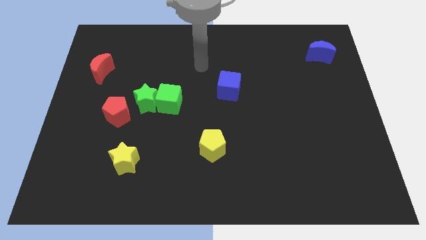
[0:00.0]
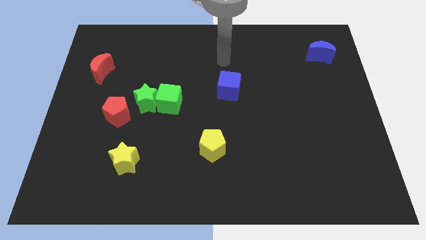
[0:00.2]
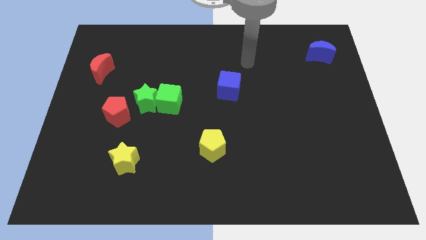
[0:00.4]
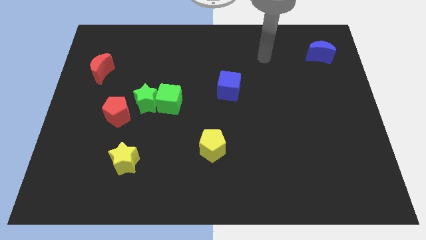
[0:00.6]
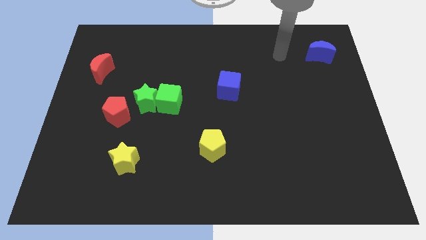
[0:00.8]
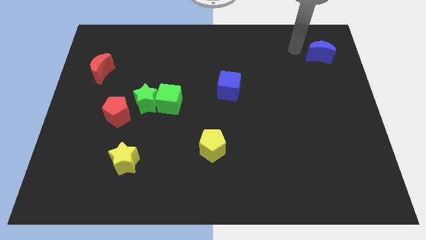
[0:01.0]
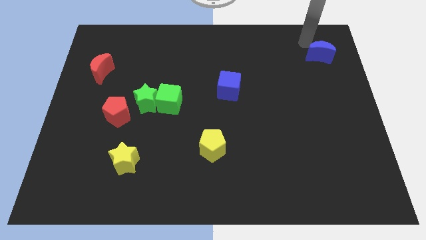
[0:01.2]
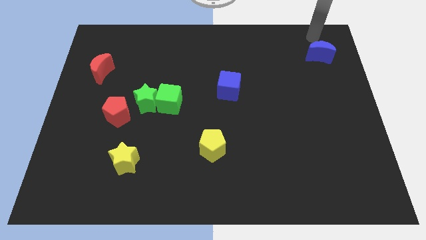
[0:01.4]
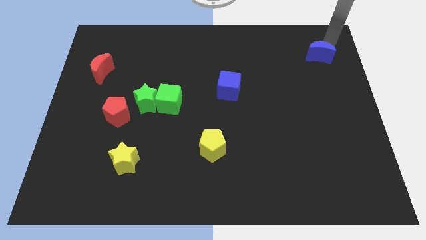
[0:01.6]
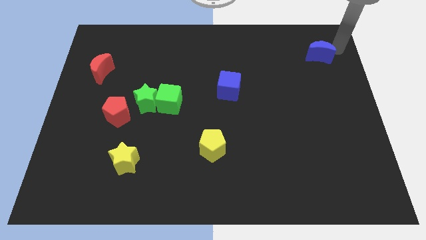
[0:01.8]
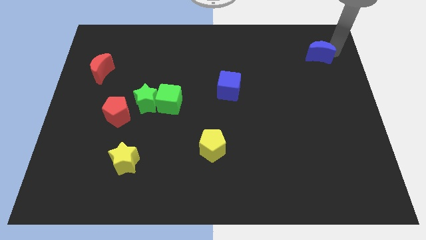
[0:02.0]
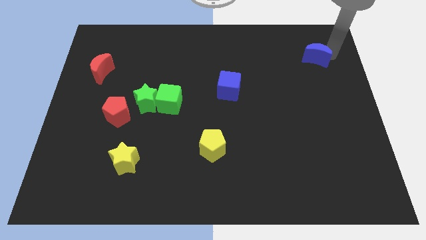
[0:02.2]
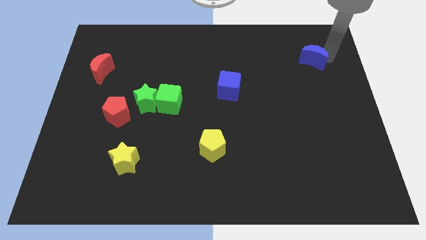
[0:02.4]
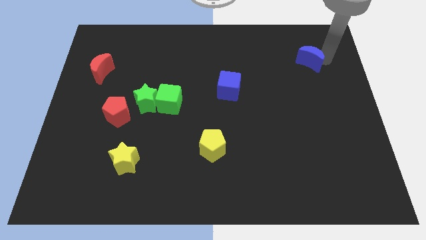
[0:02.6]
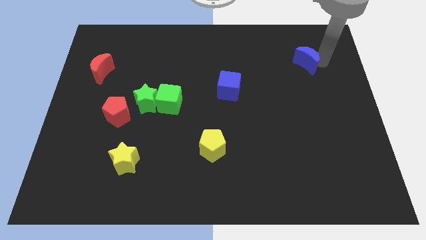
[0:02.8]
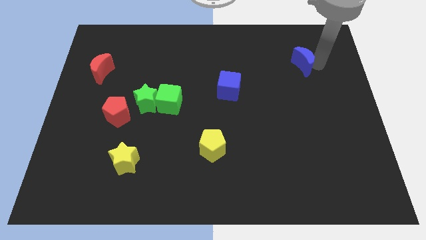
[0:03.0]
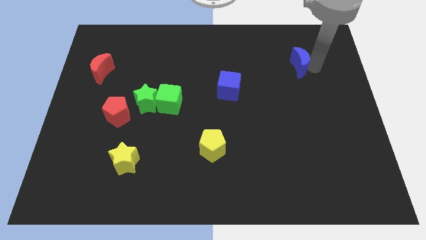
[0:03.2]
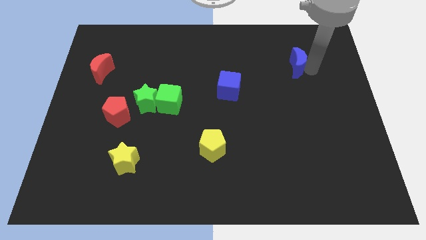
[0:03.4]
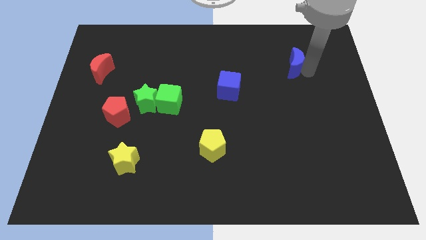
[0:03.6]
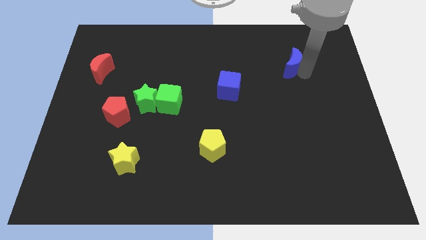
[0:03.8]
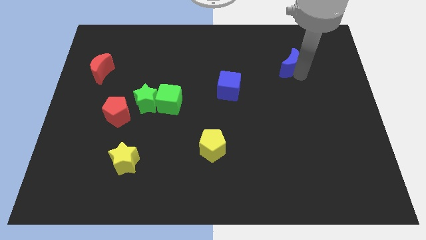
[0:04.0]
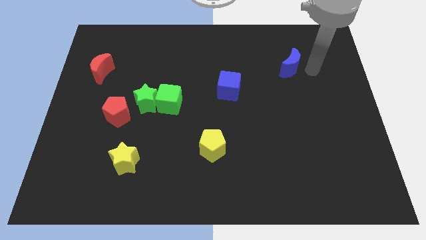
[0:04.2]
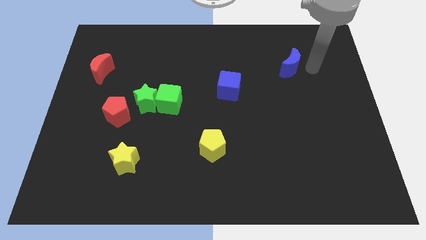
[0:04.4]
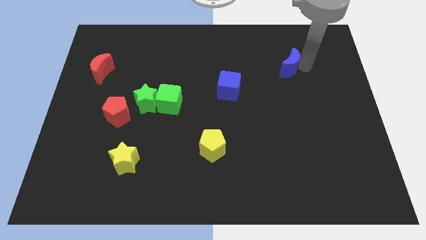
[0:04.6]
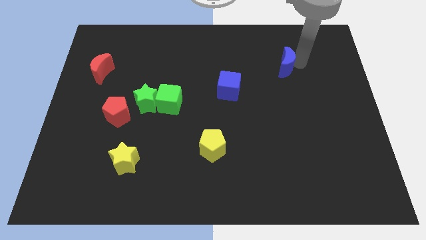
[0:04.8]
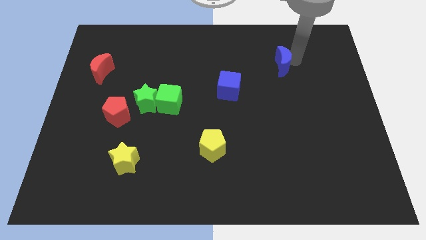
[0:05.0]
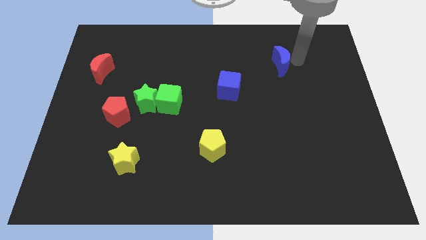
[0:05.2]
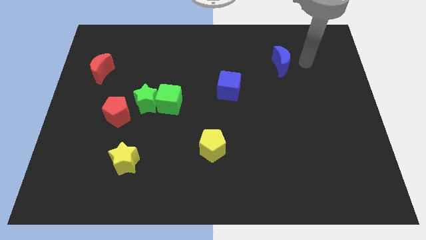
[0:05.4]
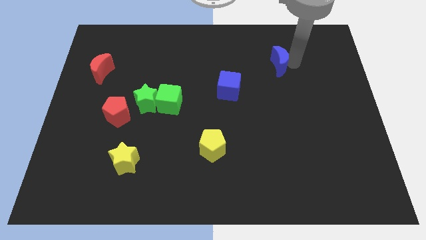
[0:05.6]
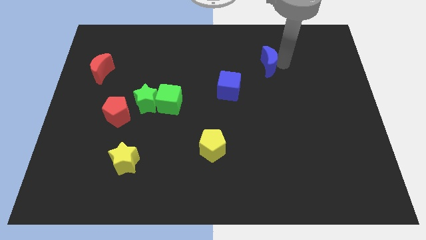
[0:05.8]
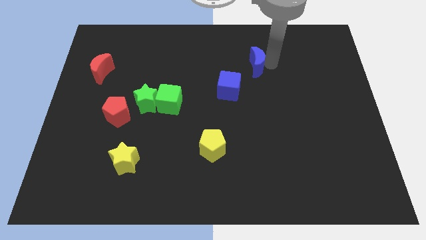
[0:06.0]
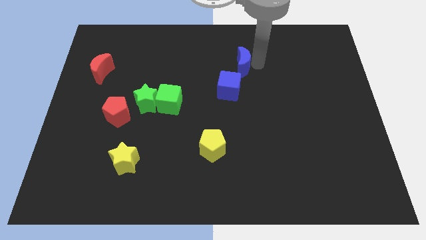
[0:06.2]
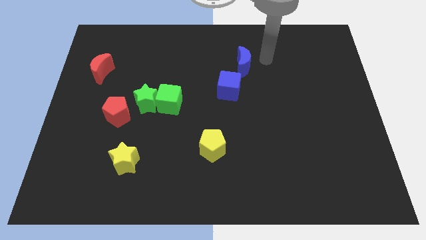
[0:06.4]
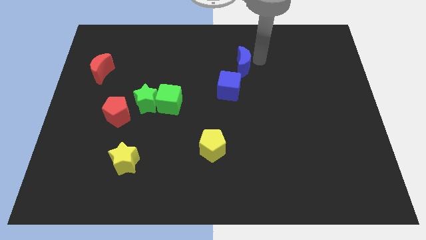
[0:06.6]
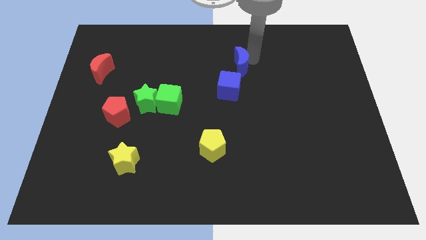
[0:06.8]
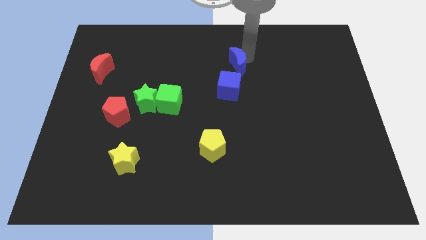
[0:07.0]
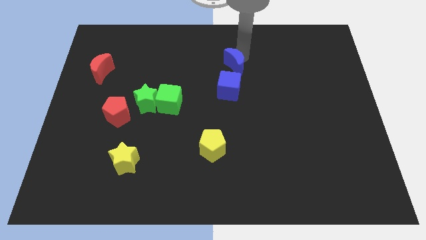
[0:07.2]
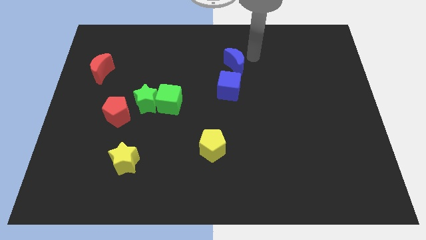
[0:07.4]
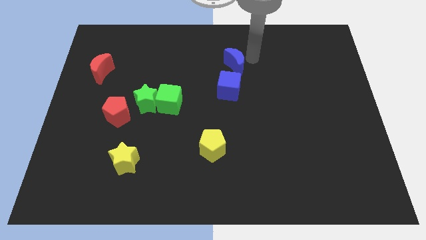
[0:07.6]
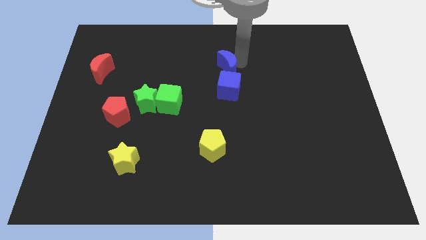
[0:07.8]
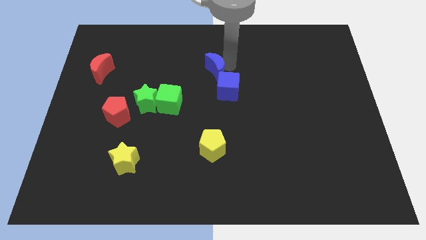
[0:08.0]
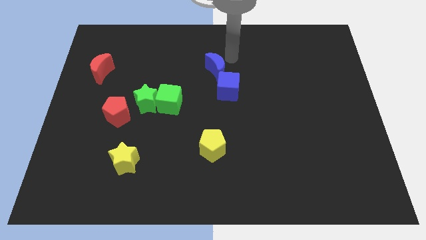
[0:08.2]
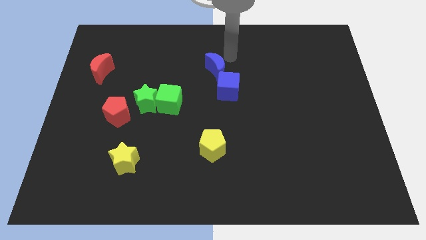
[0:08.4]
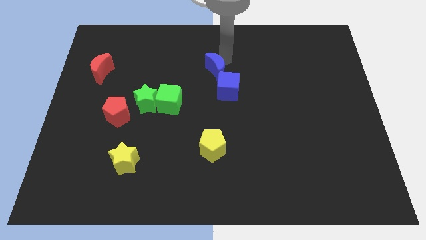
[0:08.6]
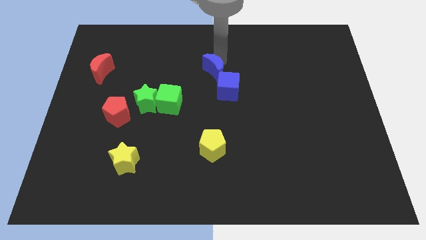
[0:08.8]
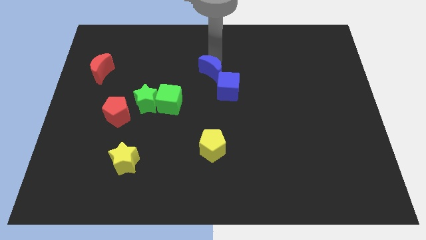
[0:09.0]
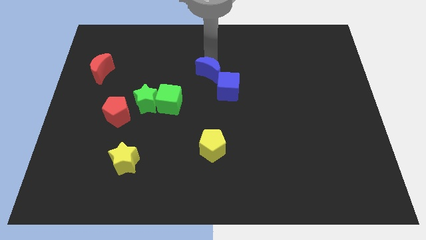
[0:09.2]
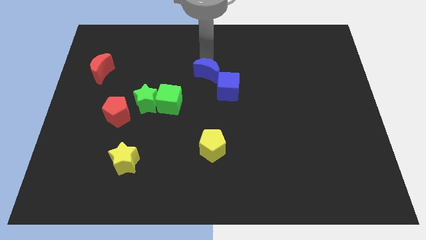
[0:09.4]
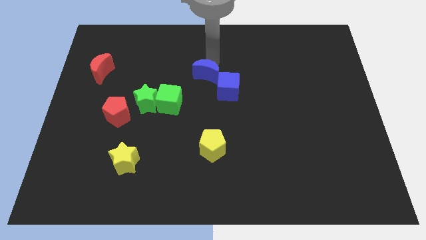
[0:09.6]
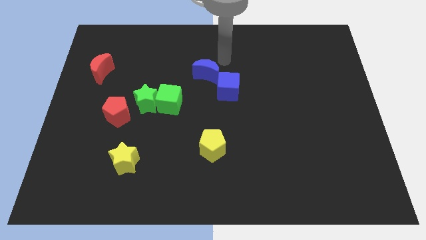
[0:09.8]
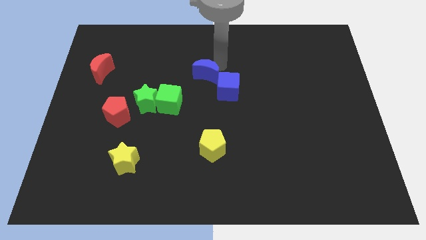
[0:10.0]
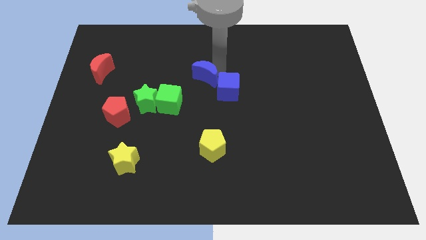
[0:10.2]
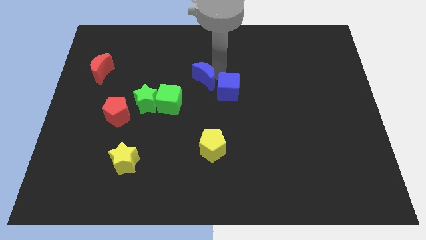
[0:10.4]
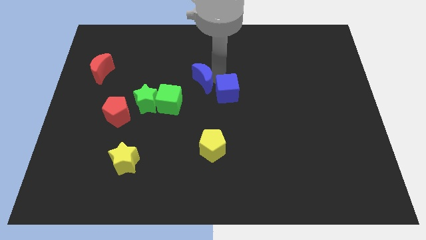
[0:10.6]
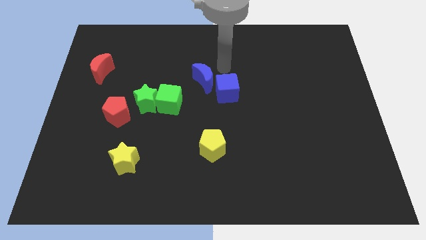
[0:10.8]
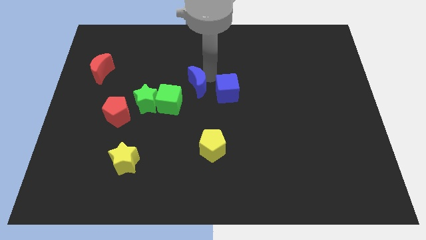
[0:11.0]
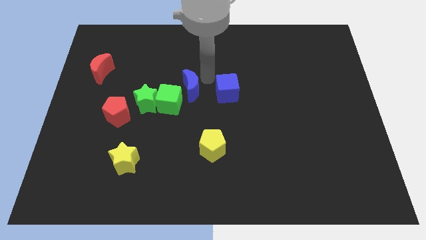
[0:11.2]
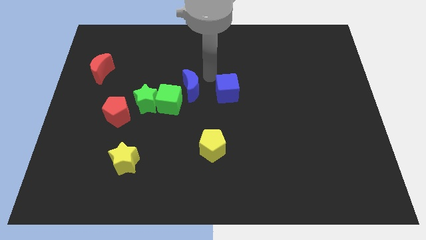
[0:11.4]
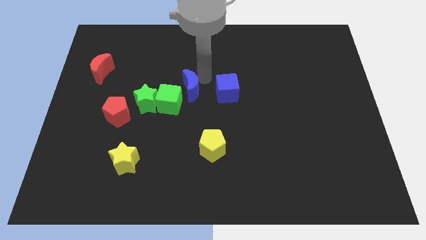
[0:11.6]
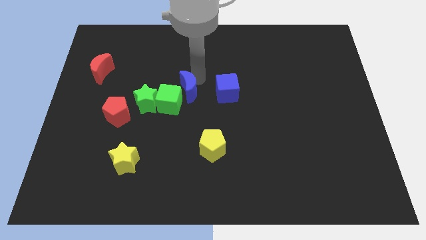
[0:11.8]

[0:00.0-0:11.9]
put the blue moon next to the green cube

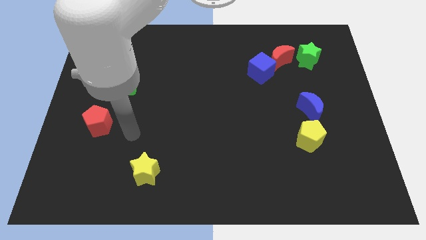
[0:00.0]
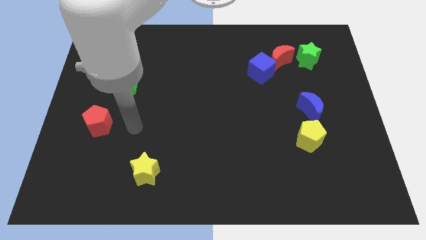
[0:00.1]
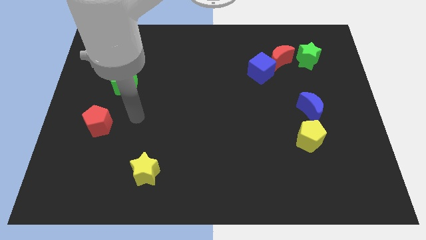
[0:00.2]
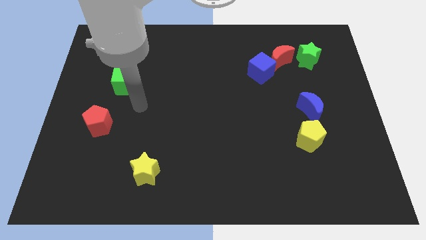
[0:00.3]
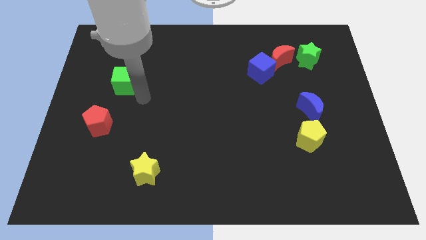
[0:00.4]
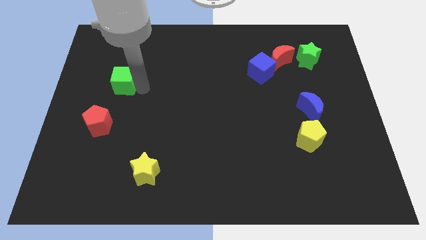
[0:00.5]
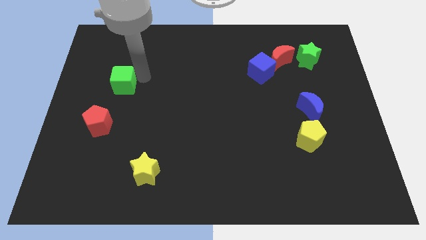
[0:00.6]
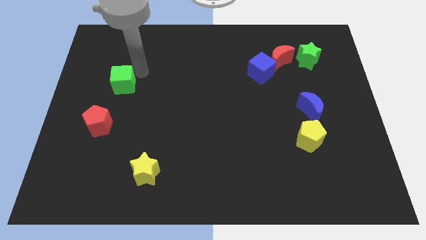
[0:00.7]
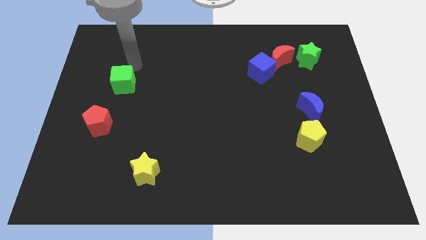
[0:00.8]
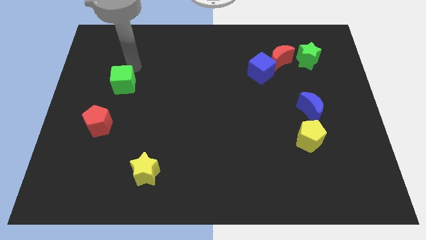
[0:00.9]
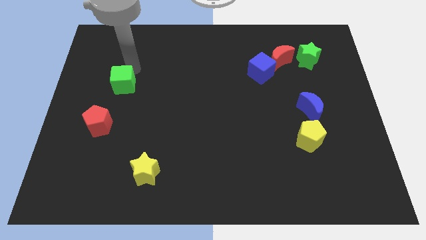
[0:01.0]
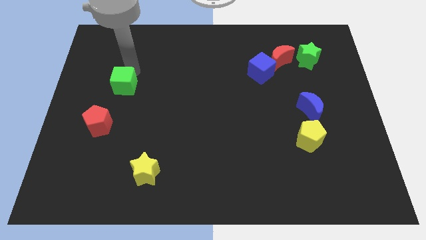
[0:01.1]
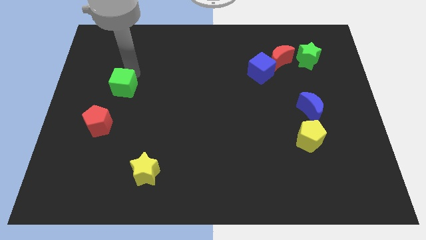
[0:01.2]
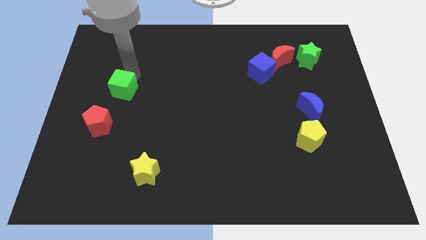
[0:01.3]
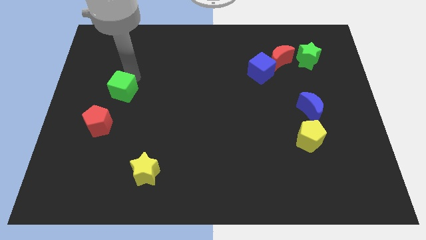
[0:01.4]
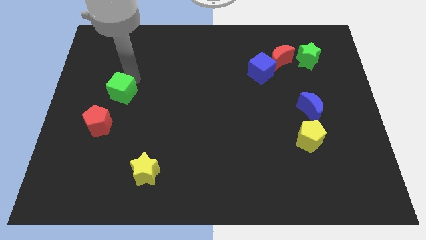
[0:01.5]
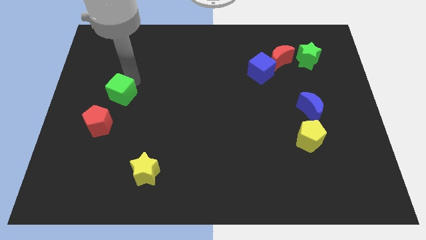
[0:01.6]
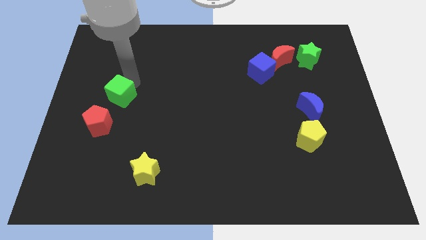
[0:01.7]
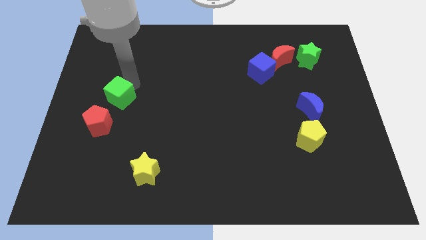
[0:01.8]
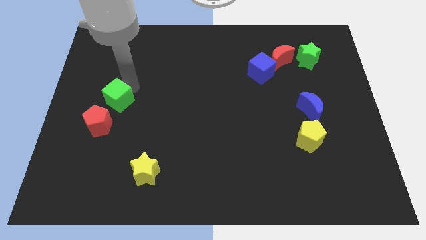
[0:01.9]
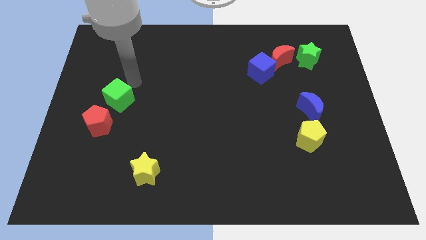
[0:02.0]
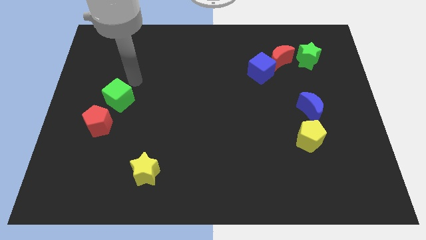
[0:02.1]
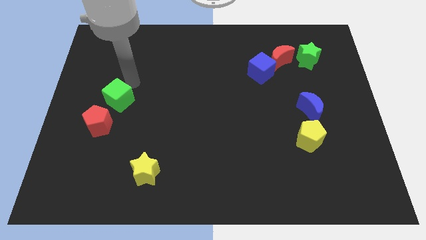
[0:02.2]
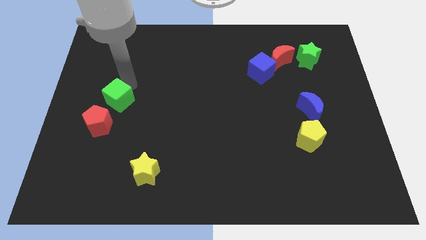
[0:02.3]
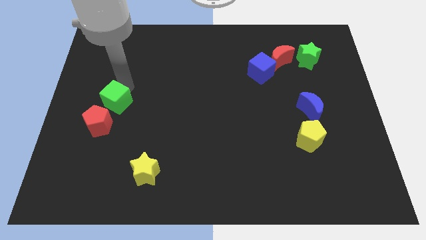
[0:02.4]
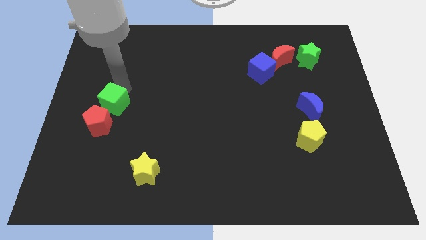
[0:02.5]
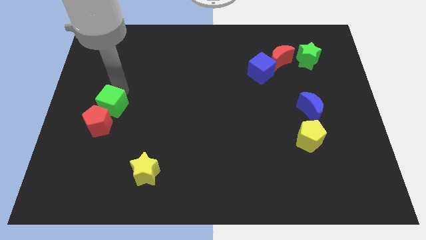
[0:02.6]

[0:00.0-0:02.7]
put the green cube next to the red pentagon
